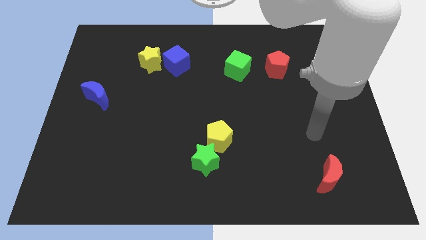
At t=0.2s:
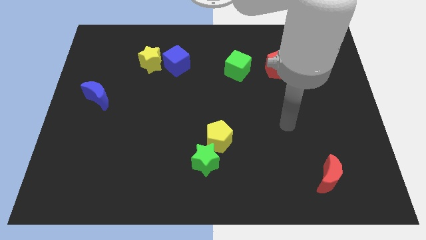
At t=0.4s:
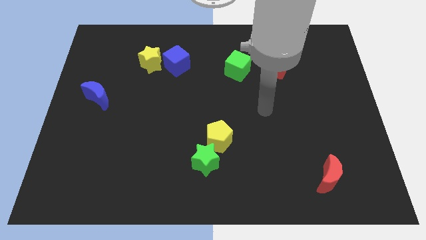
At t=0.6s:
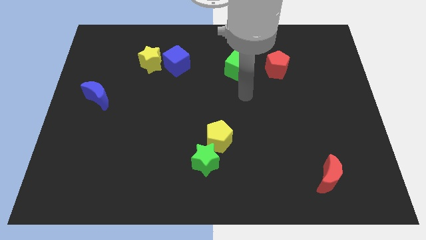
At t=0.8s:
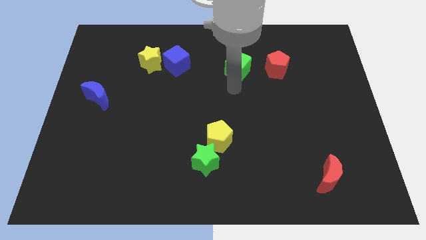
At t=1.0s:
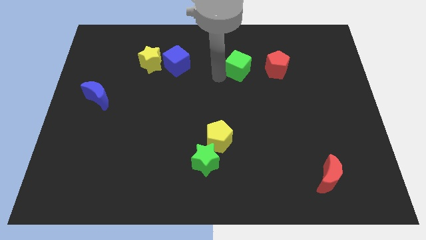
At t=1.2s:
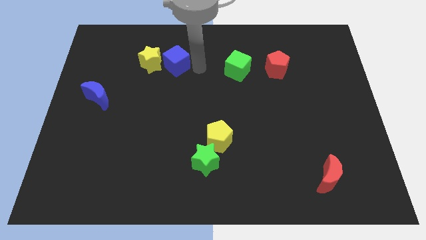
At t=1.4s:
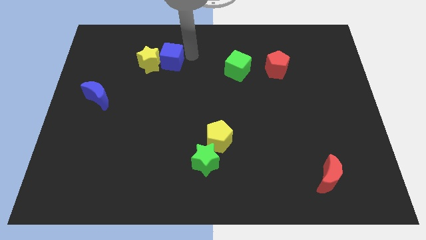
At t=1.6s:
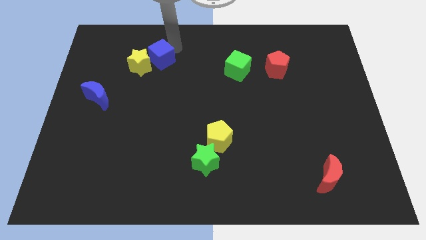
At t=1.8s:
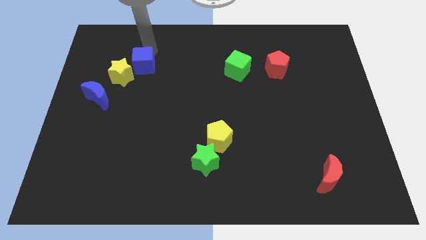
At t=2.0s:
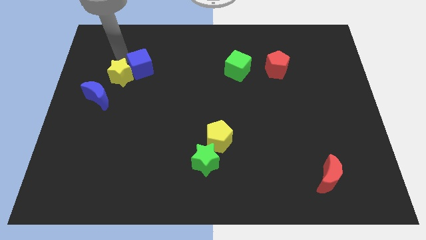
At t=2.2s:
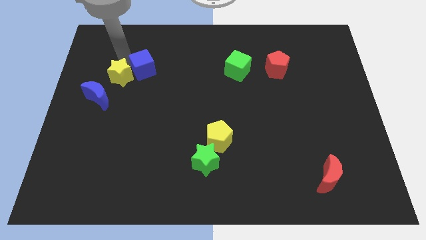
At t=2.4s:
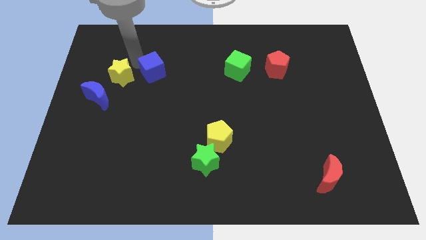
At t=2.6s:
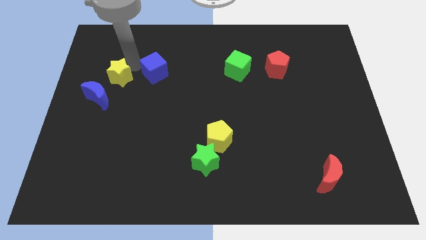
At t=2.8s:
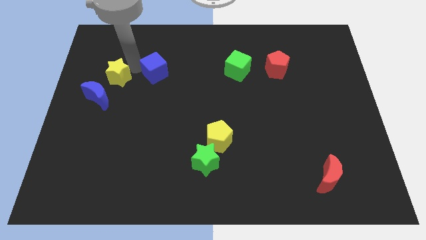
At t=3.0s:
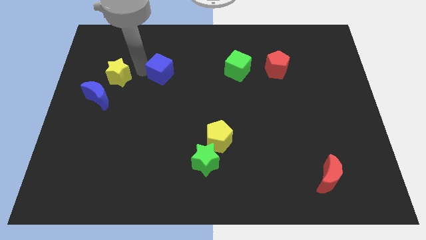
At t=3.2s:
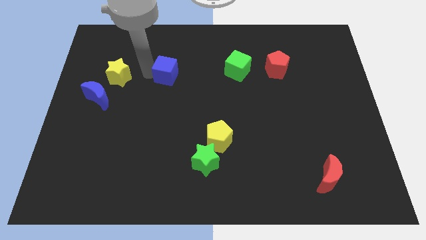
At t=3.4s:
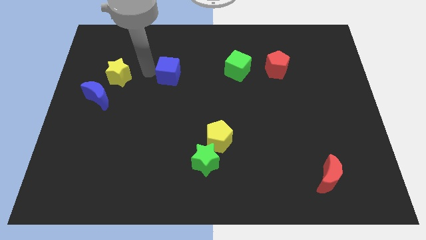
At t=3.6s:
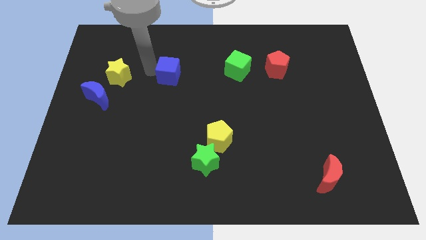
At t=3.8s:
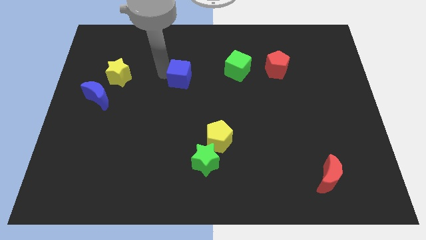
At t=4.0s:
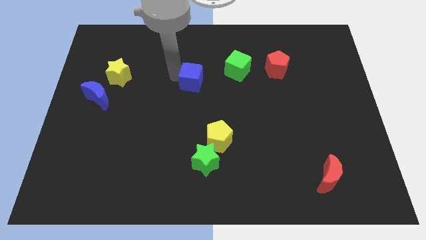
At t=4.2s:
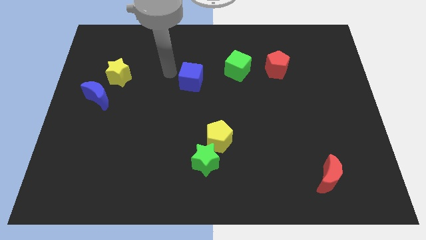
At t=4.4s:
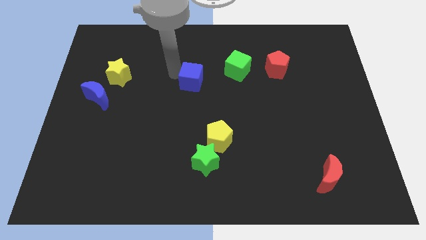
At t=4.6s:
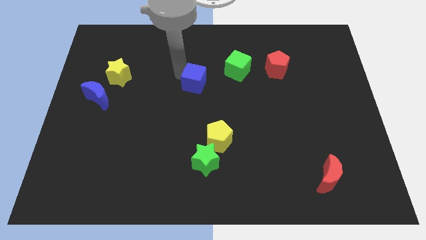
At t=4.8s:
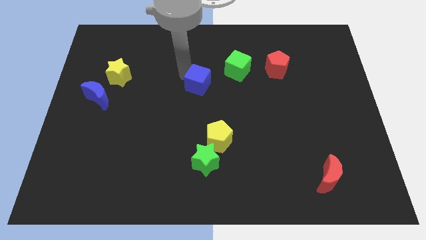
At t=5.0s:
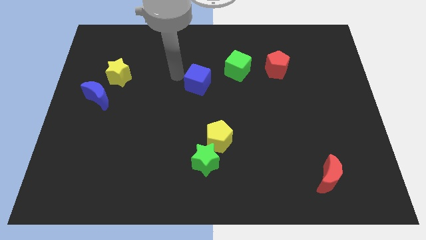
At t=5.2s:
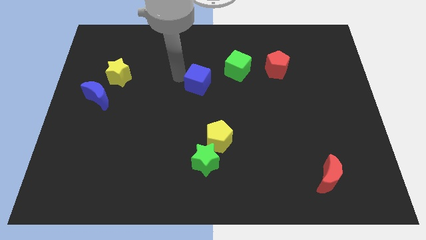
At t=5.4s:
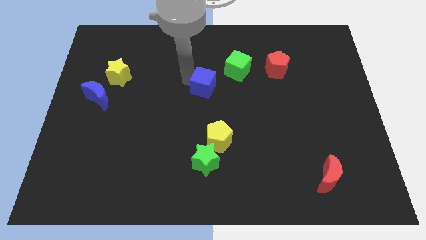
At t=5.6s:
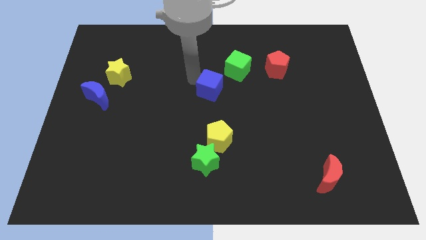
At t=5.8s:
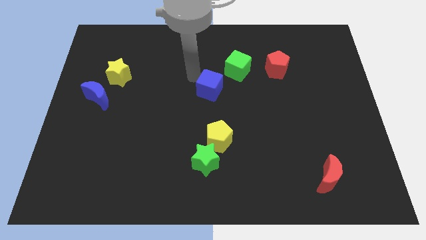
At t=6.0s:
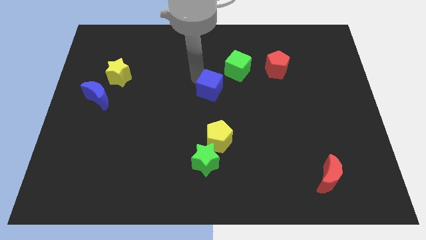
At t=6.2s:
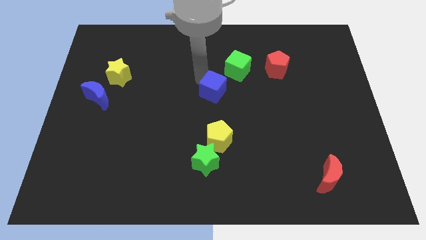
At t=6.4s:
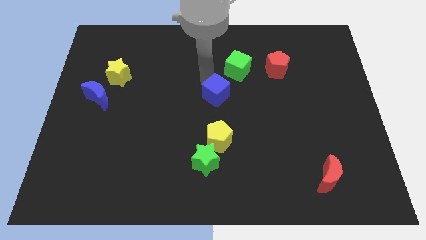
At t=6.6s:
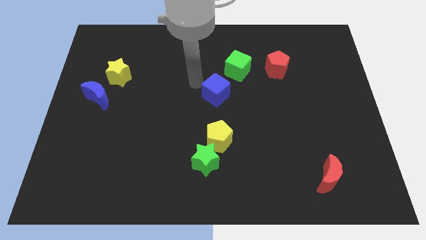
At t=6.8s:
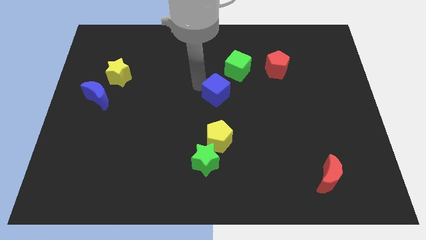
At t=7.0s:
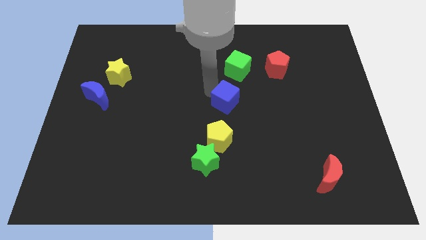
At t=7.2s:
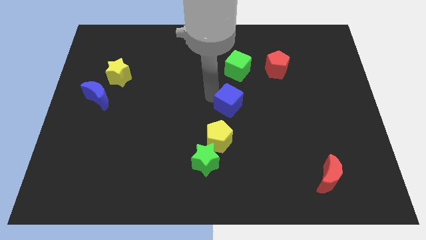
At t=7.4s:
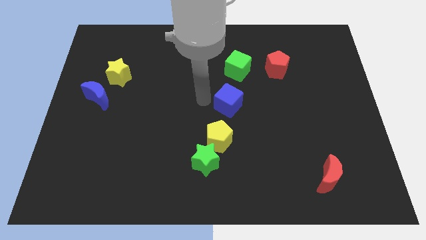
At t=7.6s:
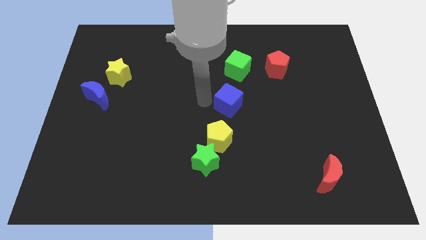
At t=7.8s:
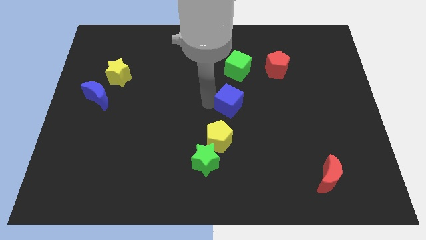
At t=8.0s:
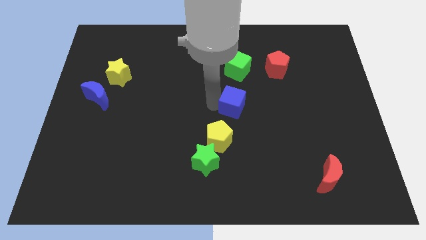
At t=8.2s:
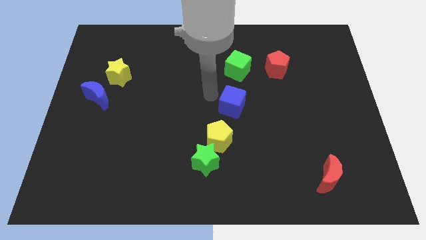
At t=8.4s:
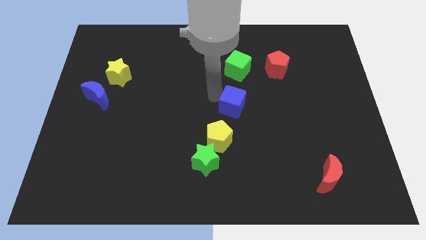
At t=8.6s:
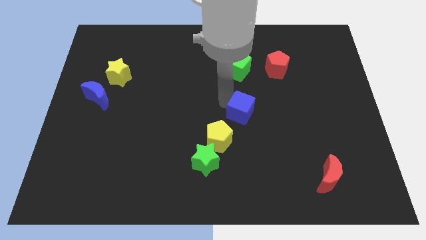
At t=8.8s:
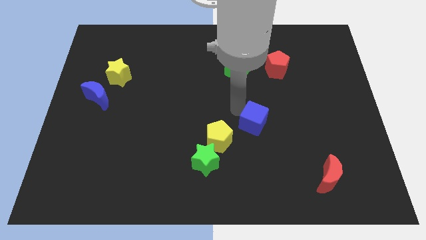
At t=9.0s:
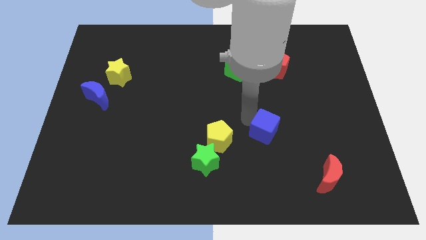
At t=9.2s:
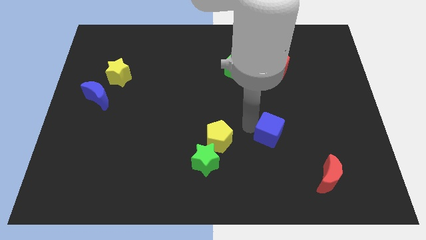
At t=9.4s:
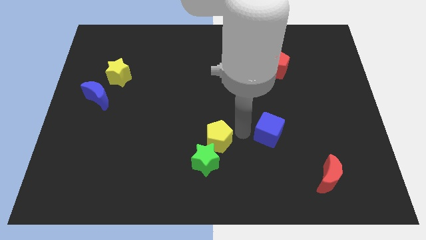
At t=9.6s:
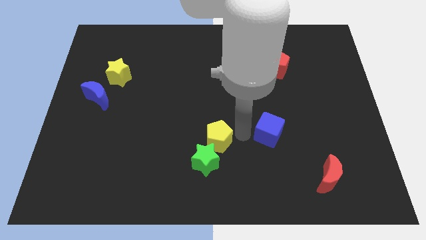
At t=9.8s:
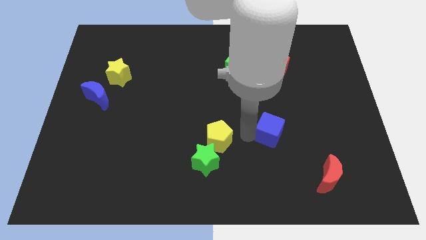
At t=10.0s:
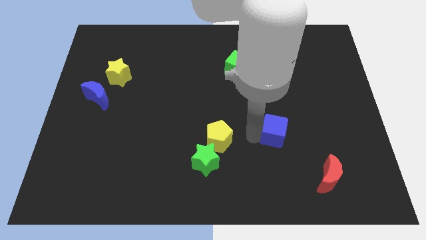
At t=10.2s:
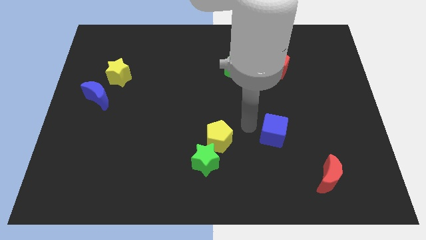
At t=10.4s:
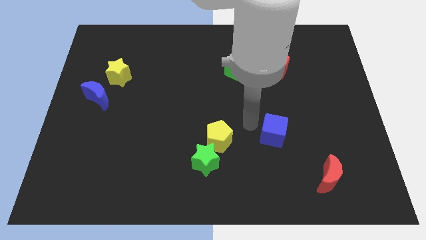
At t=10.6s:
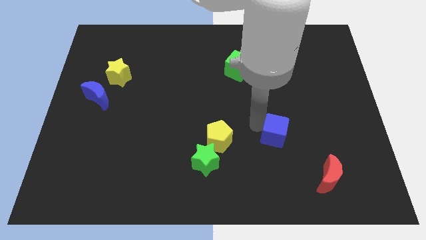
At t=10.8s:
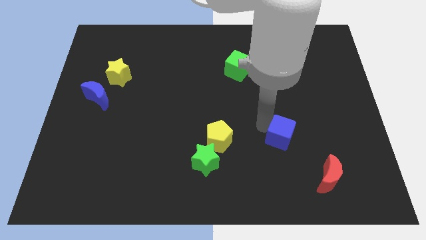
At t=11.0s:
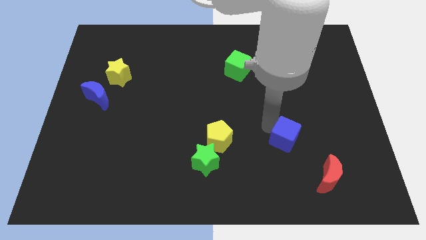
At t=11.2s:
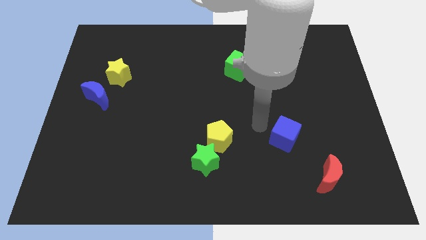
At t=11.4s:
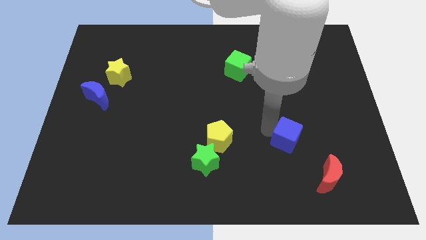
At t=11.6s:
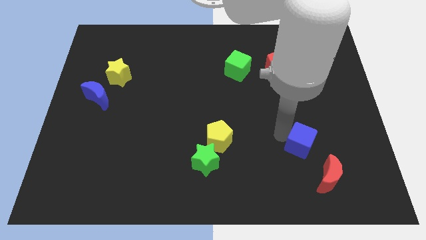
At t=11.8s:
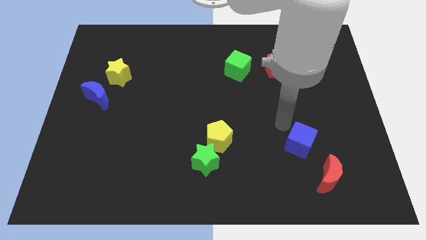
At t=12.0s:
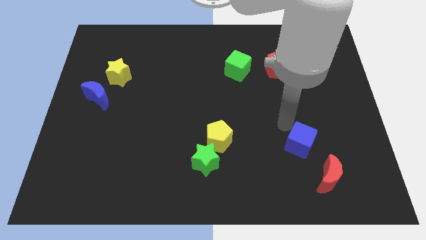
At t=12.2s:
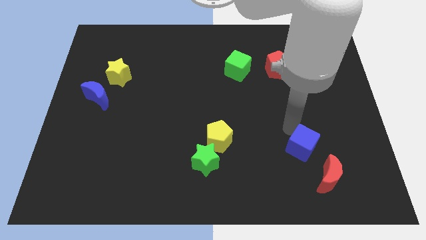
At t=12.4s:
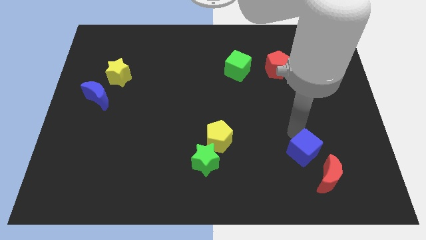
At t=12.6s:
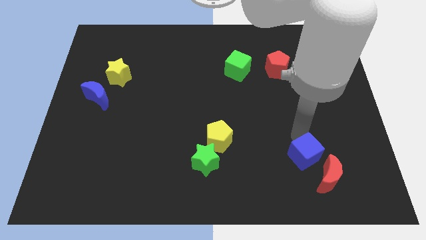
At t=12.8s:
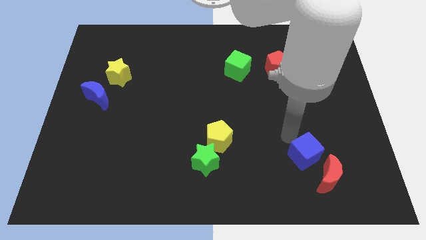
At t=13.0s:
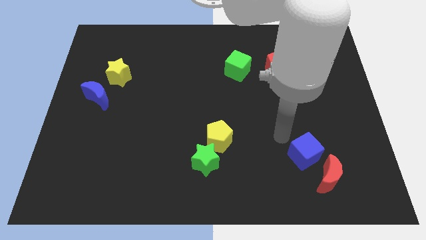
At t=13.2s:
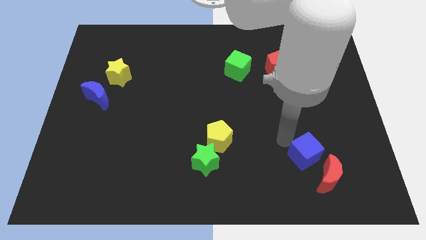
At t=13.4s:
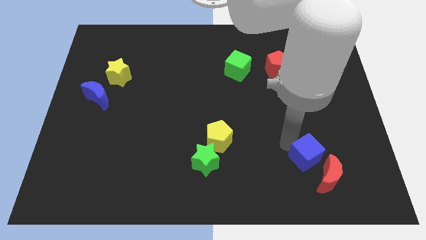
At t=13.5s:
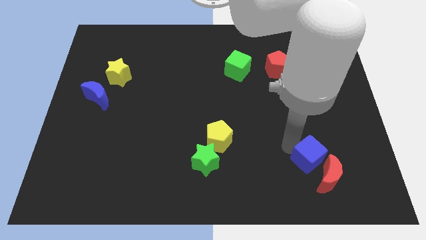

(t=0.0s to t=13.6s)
push the blue cube towards the red moon

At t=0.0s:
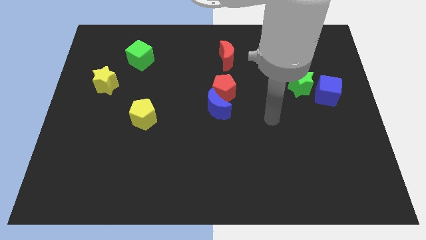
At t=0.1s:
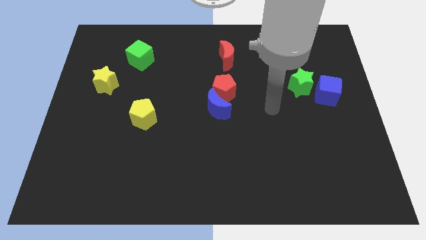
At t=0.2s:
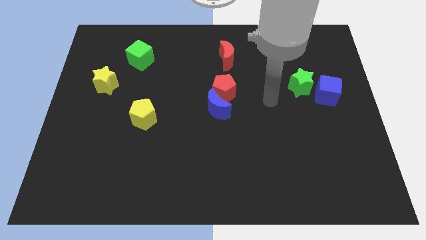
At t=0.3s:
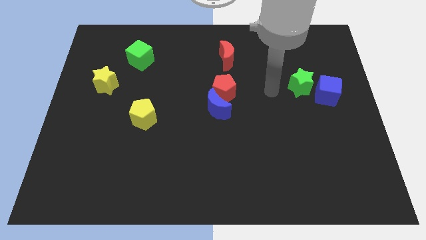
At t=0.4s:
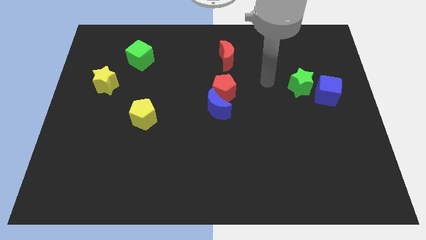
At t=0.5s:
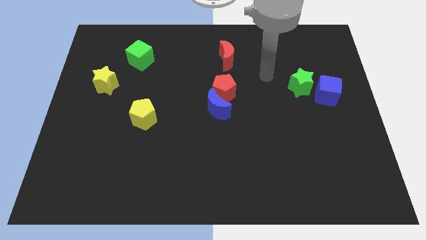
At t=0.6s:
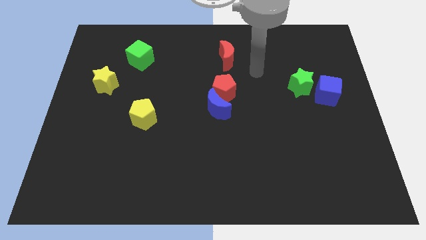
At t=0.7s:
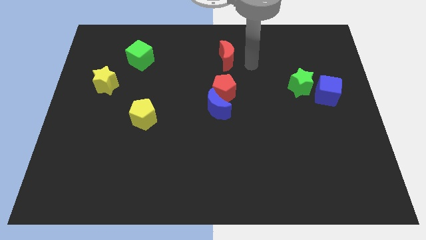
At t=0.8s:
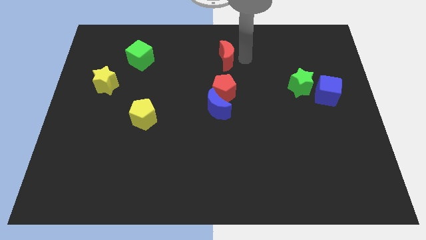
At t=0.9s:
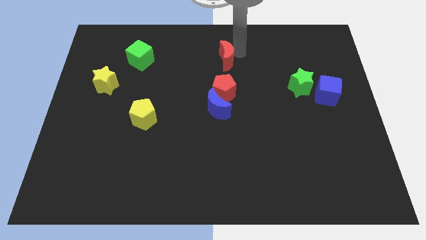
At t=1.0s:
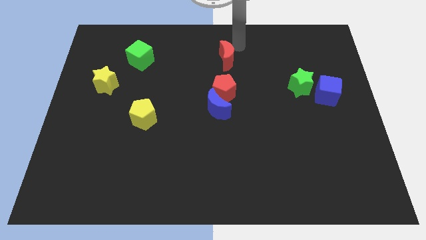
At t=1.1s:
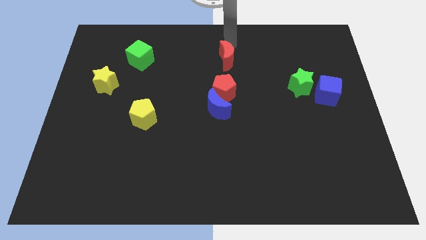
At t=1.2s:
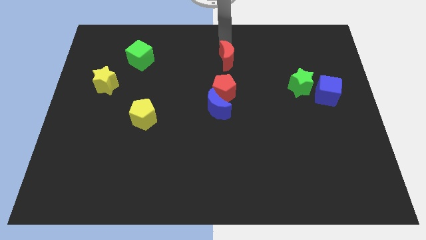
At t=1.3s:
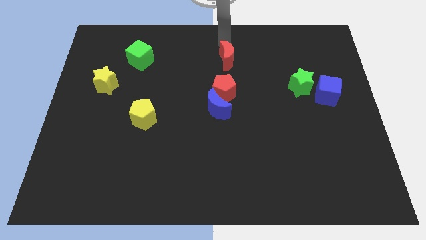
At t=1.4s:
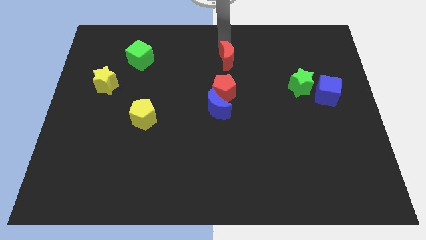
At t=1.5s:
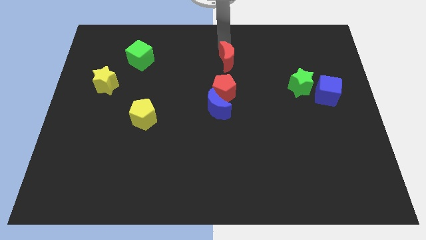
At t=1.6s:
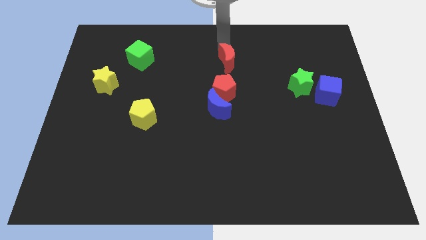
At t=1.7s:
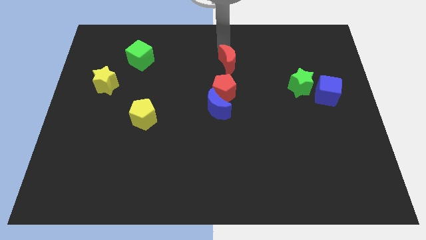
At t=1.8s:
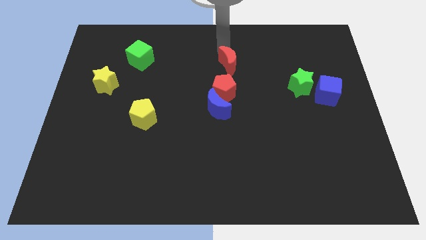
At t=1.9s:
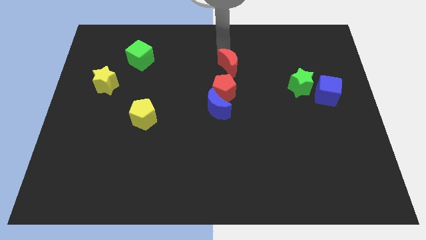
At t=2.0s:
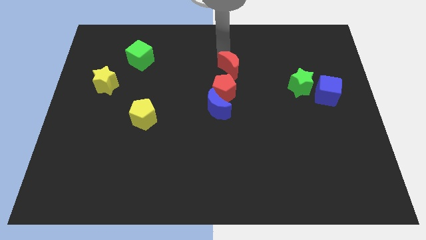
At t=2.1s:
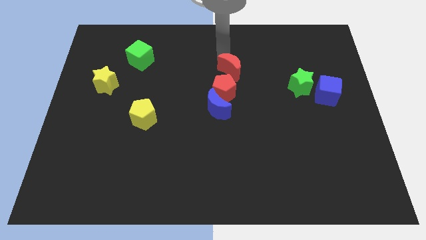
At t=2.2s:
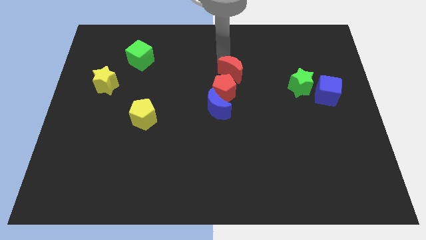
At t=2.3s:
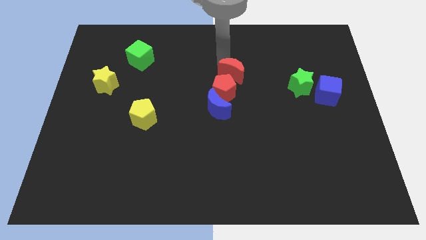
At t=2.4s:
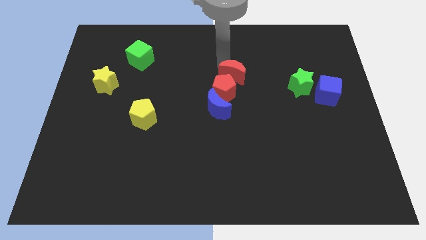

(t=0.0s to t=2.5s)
put the red moon to the red pentagon
